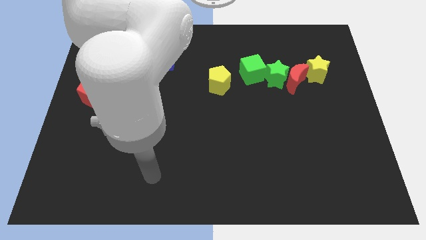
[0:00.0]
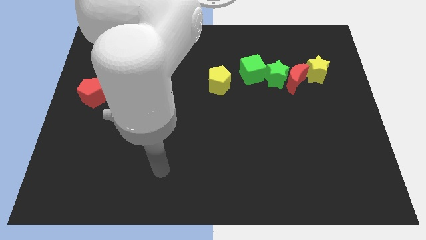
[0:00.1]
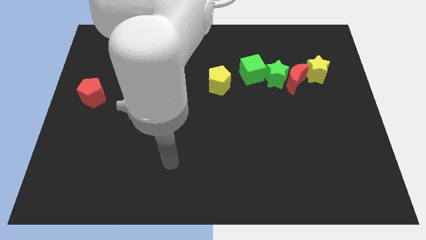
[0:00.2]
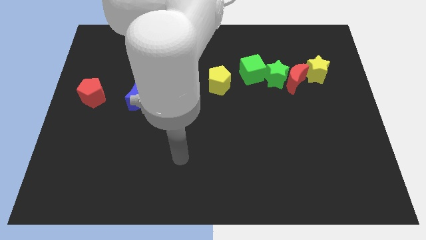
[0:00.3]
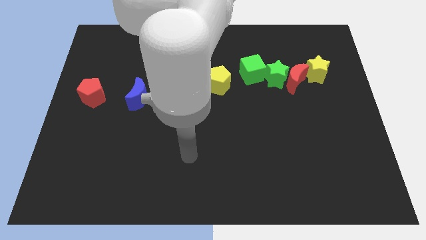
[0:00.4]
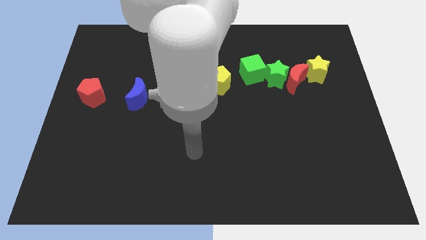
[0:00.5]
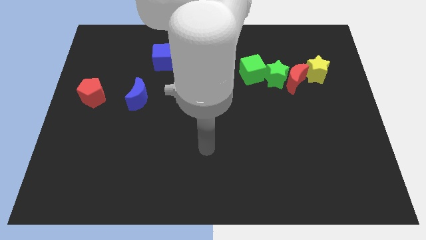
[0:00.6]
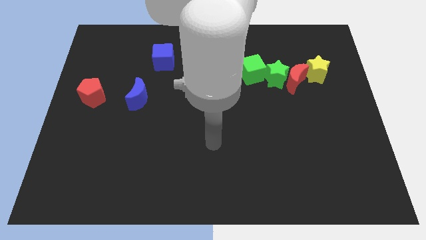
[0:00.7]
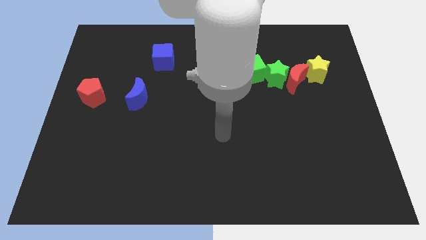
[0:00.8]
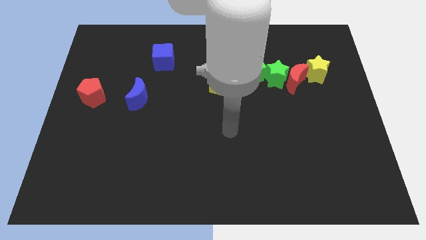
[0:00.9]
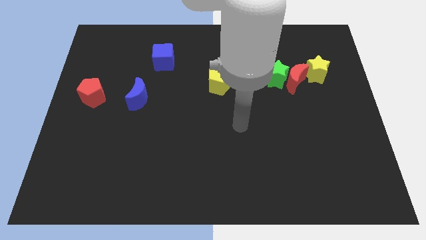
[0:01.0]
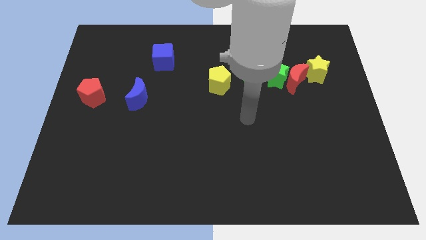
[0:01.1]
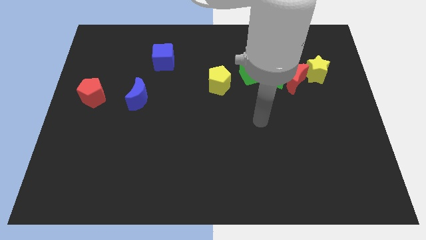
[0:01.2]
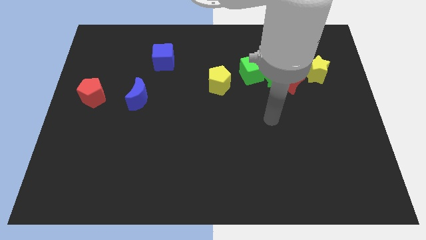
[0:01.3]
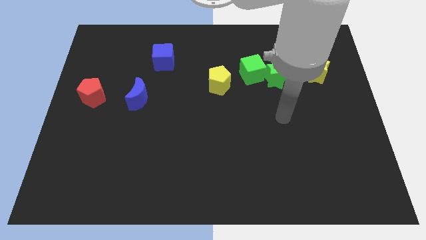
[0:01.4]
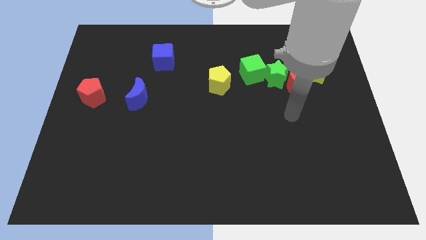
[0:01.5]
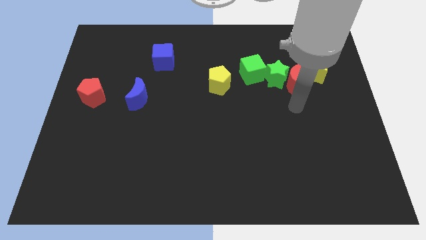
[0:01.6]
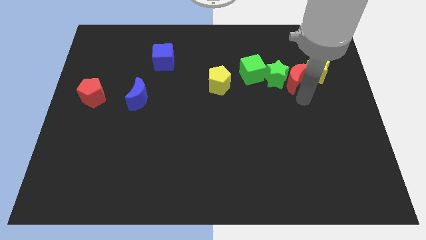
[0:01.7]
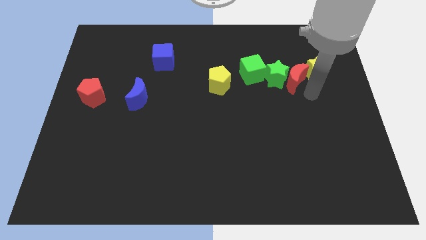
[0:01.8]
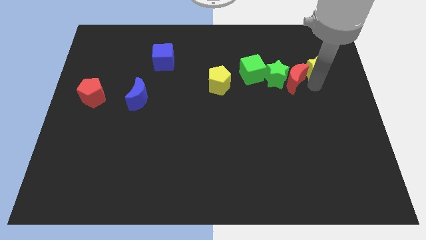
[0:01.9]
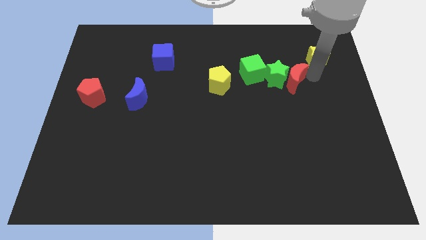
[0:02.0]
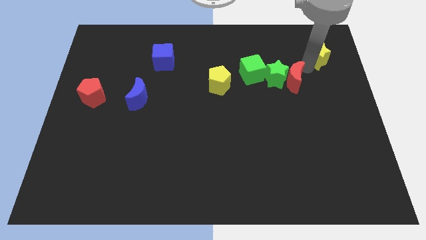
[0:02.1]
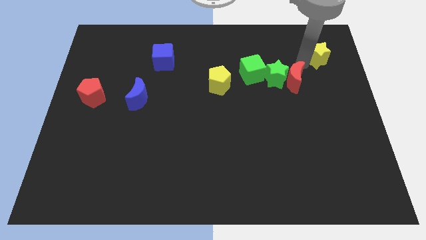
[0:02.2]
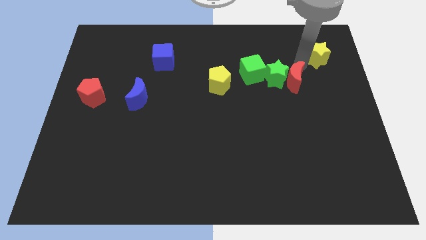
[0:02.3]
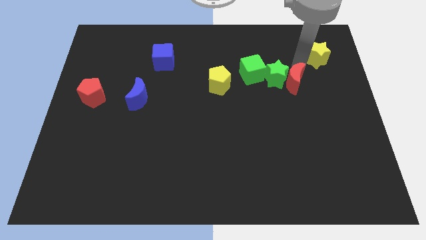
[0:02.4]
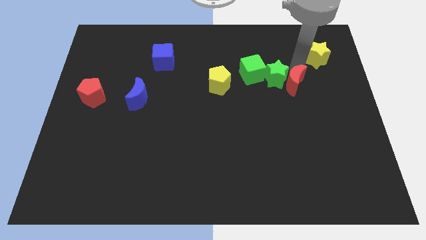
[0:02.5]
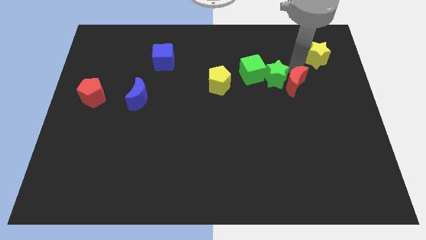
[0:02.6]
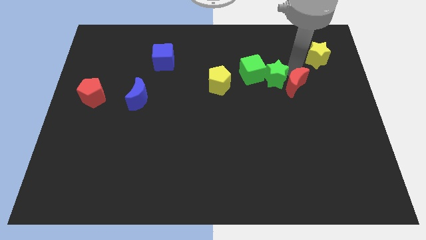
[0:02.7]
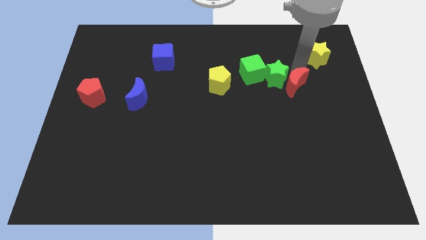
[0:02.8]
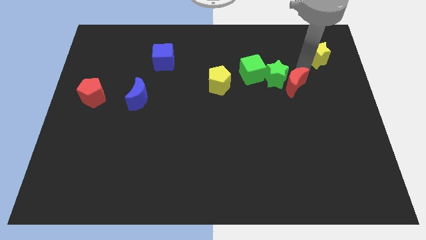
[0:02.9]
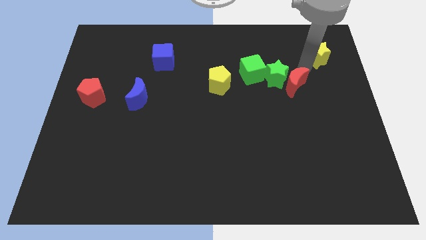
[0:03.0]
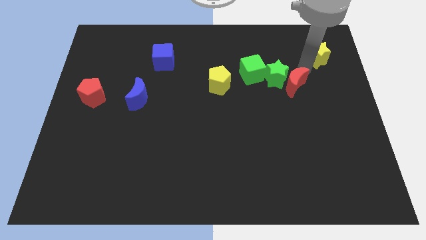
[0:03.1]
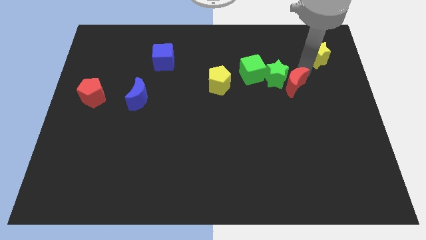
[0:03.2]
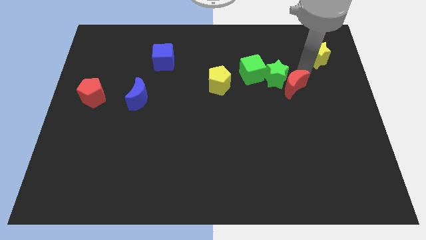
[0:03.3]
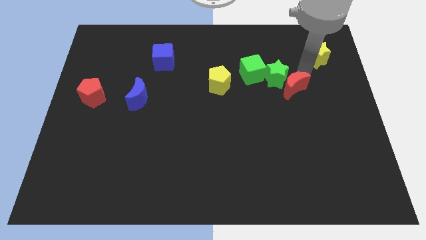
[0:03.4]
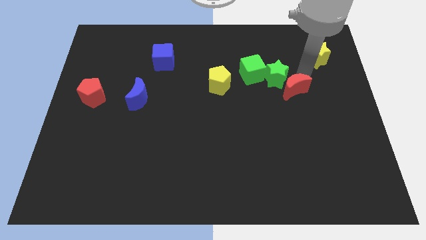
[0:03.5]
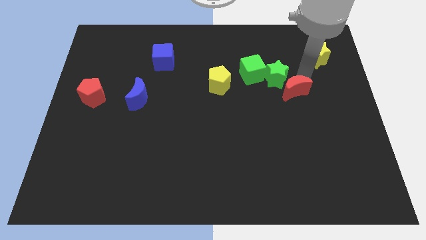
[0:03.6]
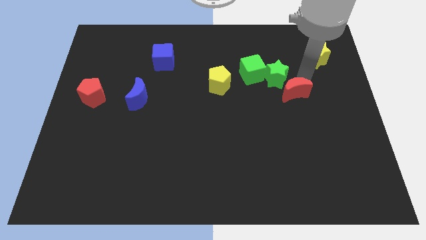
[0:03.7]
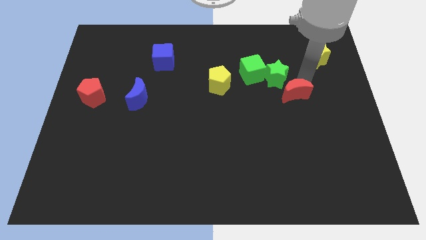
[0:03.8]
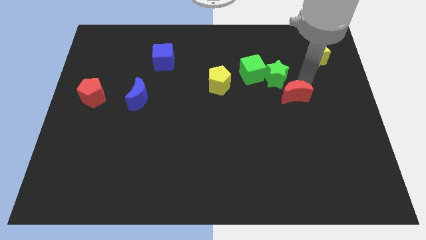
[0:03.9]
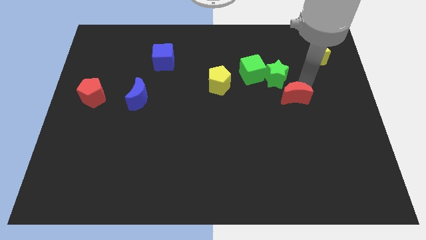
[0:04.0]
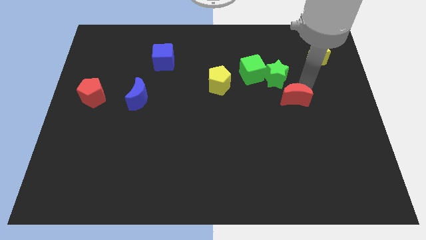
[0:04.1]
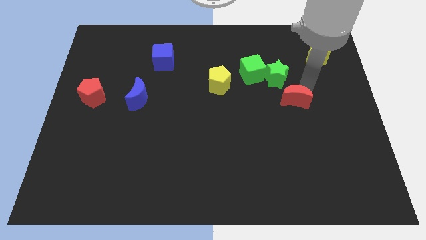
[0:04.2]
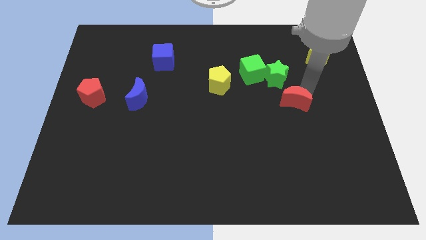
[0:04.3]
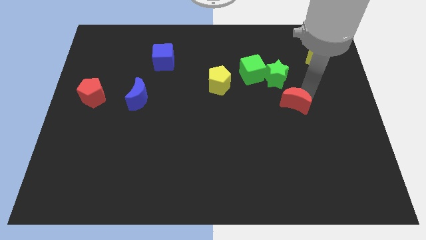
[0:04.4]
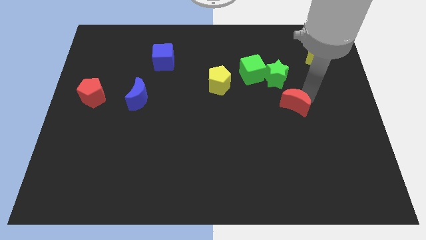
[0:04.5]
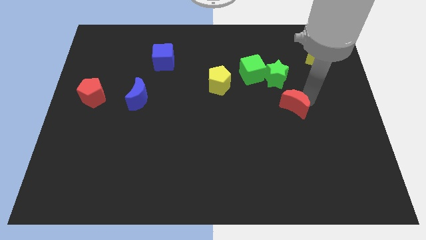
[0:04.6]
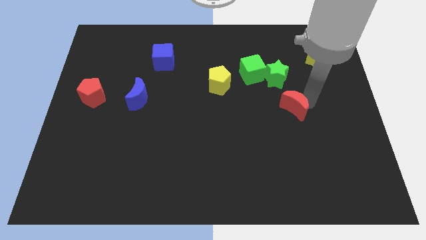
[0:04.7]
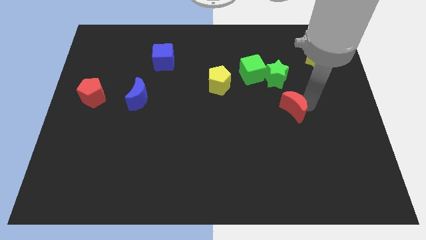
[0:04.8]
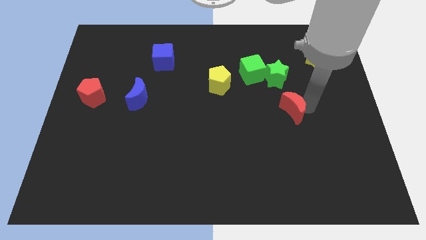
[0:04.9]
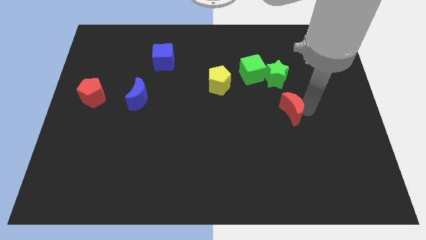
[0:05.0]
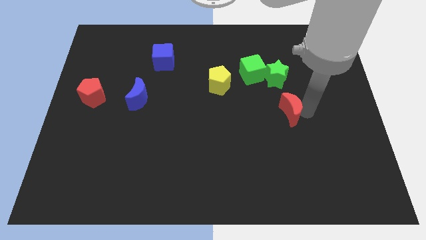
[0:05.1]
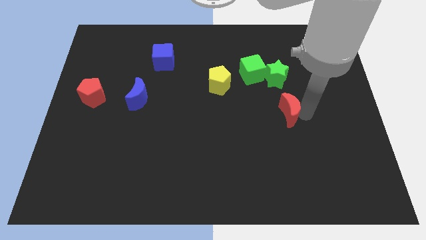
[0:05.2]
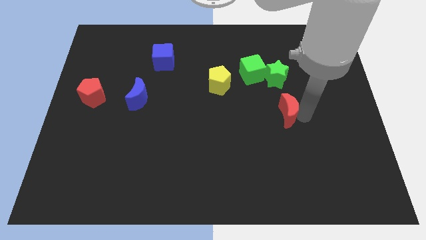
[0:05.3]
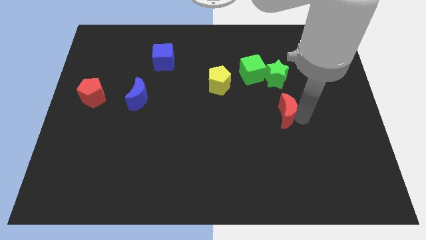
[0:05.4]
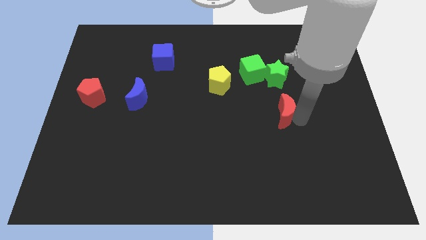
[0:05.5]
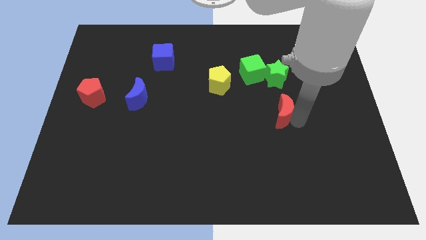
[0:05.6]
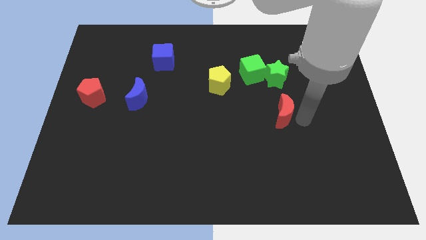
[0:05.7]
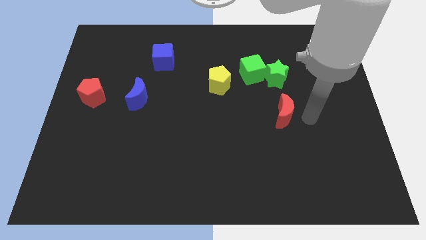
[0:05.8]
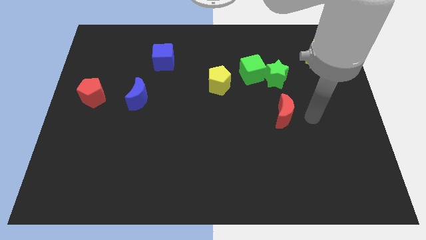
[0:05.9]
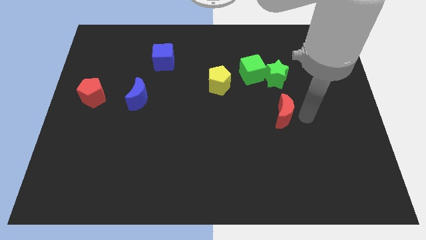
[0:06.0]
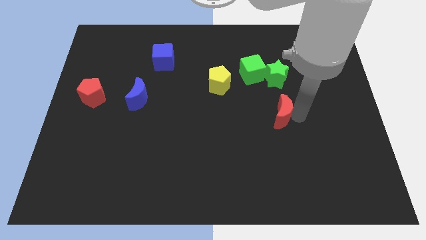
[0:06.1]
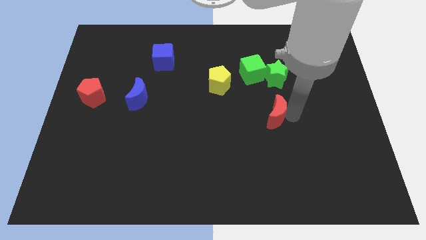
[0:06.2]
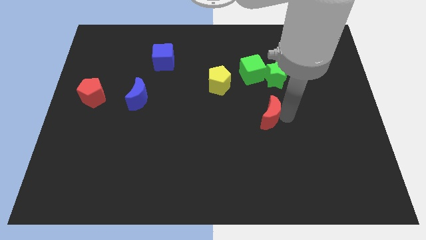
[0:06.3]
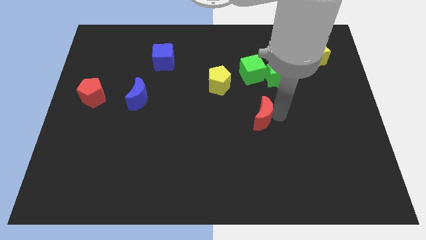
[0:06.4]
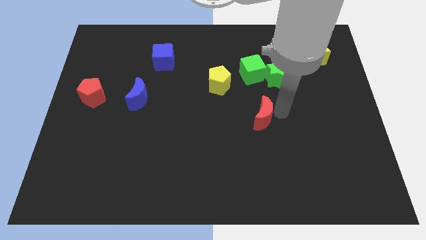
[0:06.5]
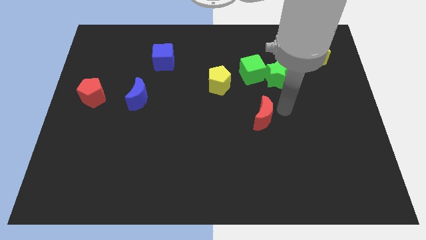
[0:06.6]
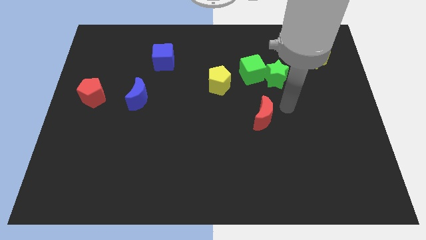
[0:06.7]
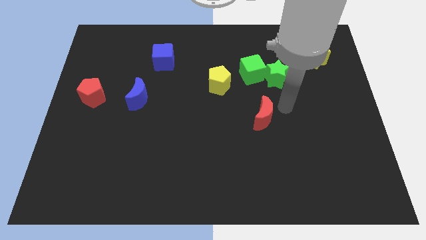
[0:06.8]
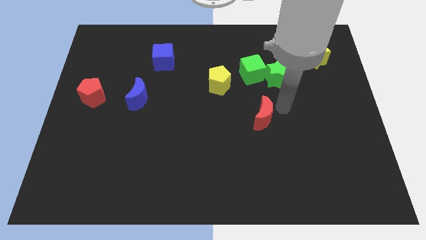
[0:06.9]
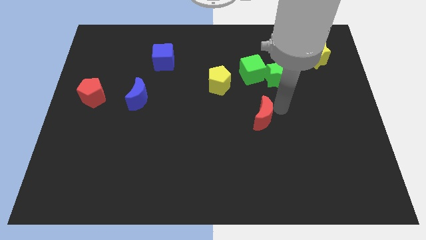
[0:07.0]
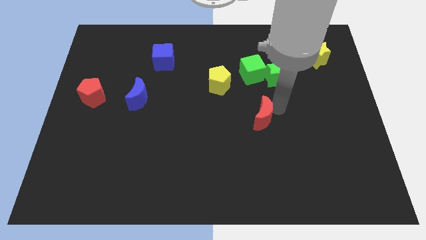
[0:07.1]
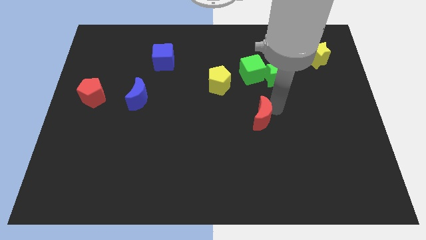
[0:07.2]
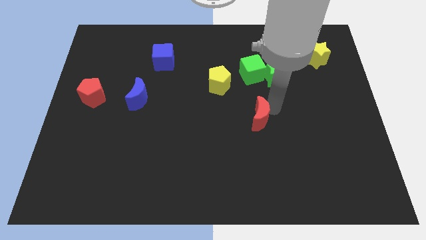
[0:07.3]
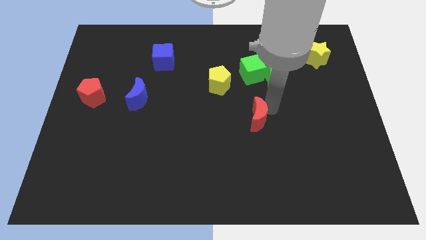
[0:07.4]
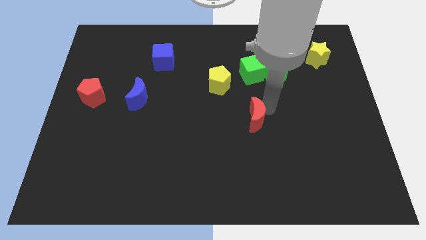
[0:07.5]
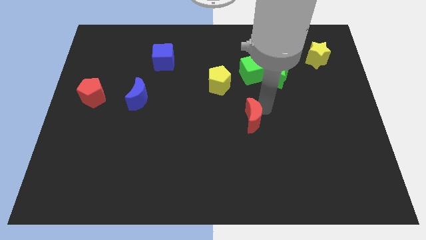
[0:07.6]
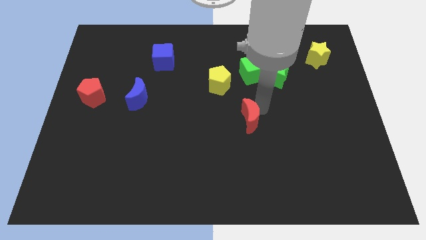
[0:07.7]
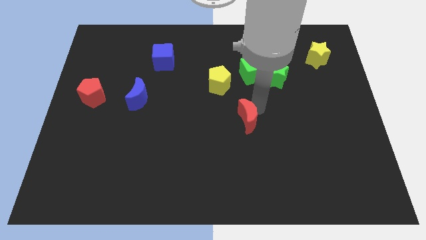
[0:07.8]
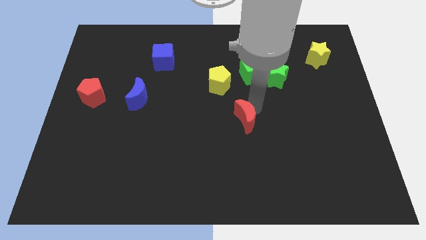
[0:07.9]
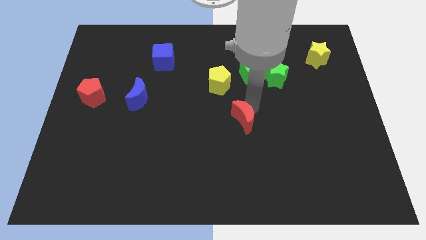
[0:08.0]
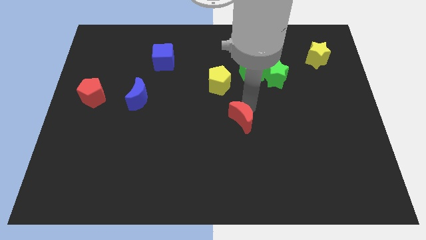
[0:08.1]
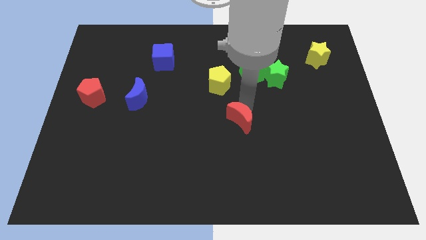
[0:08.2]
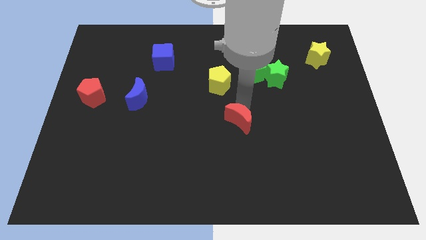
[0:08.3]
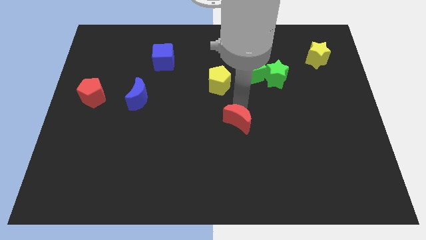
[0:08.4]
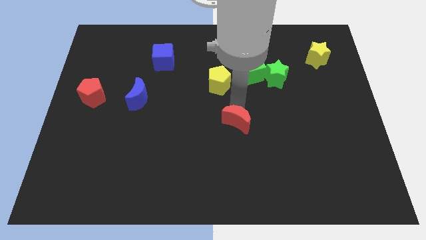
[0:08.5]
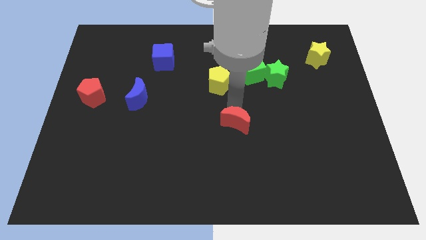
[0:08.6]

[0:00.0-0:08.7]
push the red moon downwards and to the left diagonally
